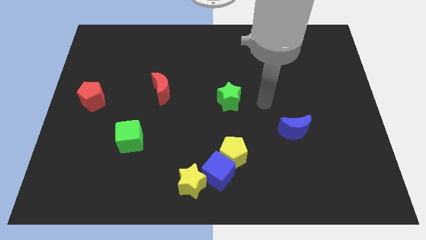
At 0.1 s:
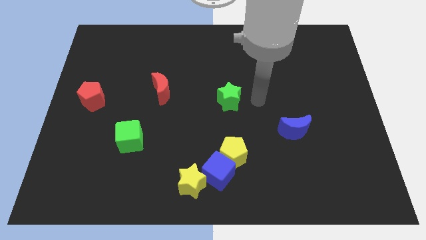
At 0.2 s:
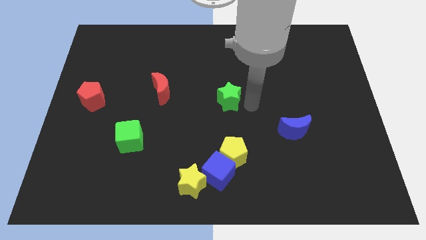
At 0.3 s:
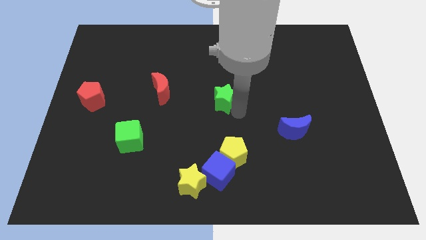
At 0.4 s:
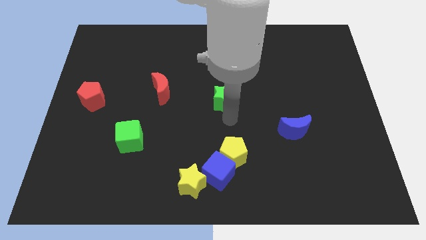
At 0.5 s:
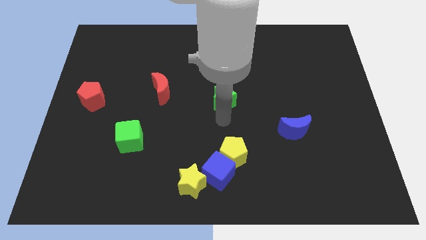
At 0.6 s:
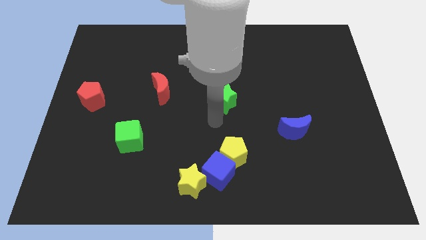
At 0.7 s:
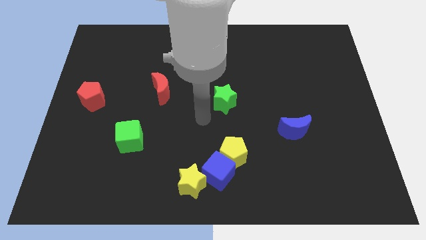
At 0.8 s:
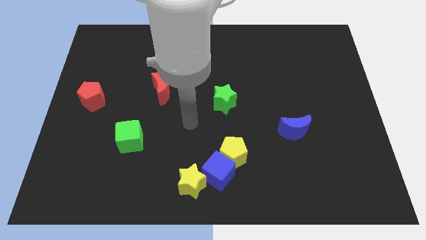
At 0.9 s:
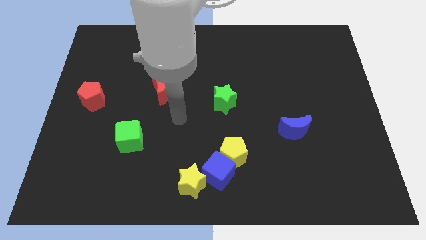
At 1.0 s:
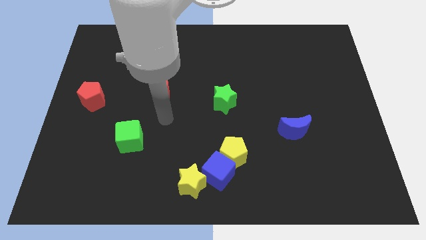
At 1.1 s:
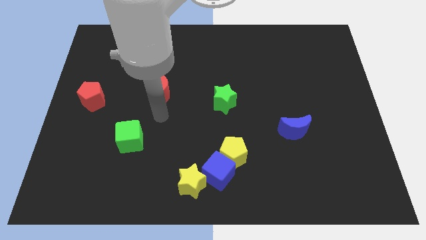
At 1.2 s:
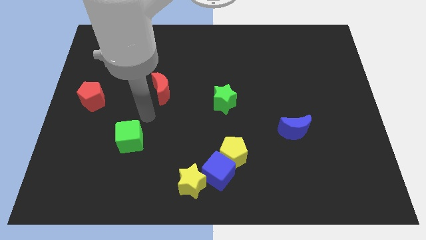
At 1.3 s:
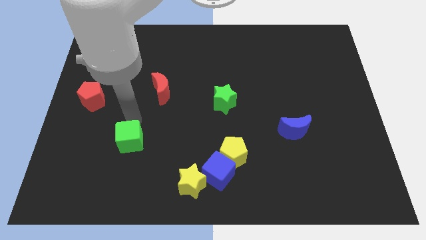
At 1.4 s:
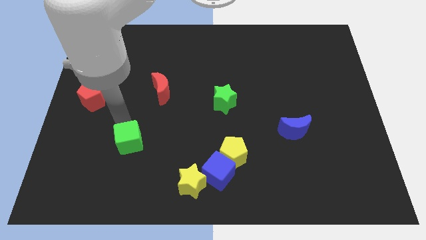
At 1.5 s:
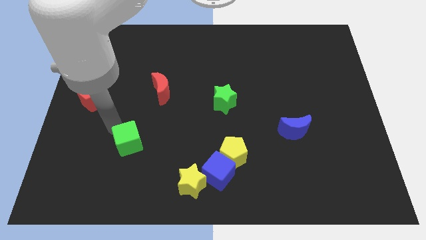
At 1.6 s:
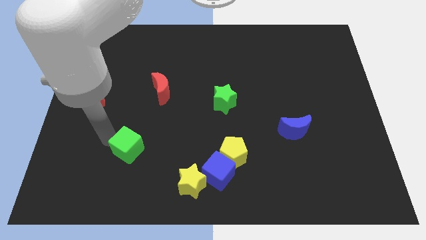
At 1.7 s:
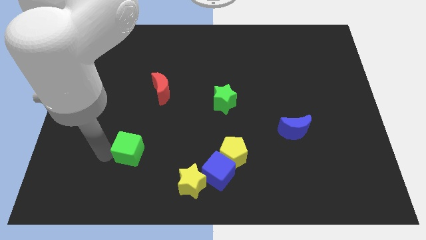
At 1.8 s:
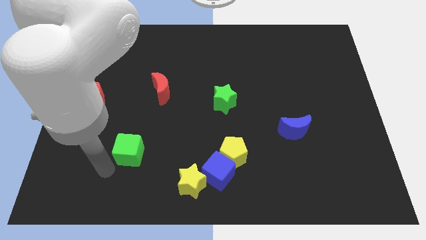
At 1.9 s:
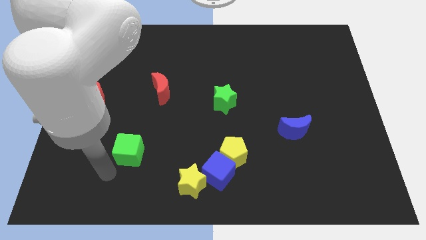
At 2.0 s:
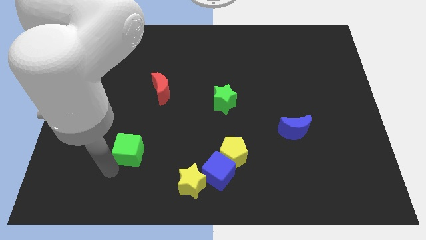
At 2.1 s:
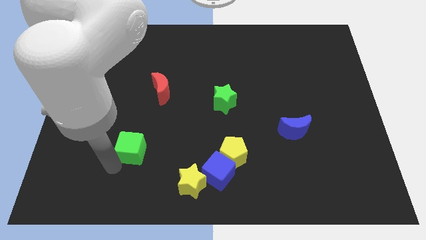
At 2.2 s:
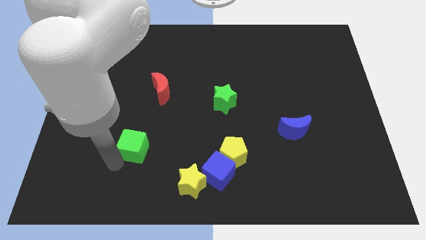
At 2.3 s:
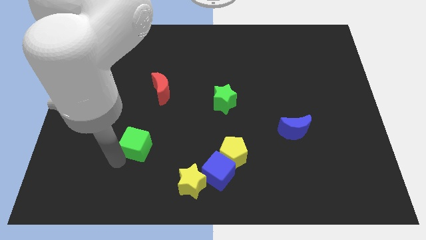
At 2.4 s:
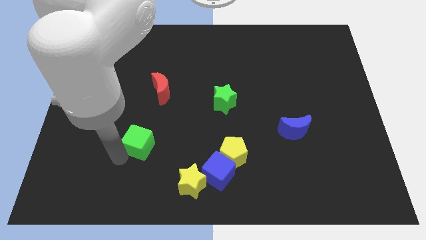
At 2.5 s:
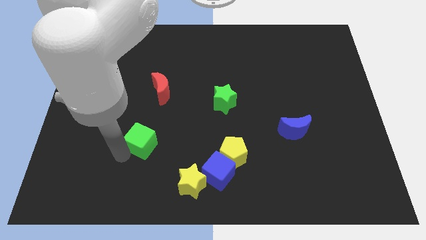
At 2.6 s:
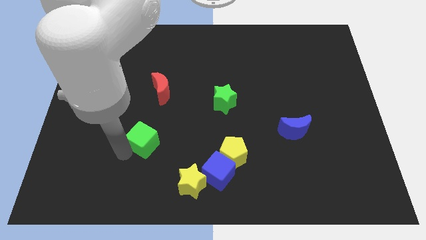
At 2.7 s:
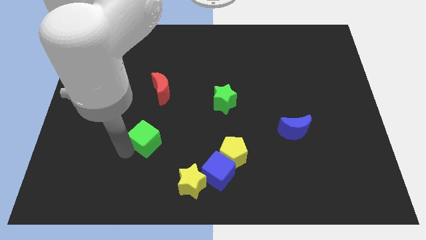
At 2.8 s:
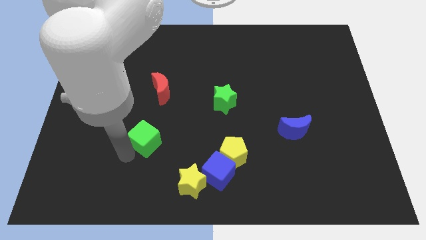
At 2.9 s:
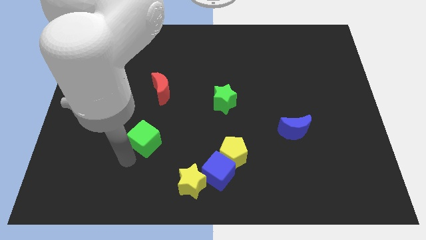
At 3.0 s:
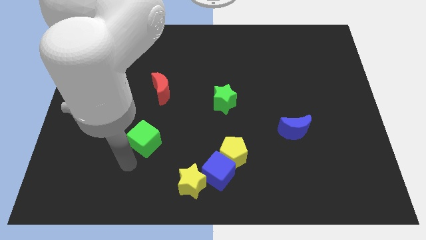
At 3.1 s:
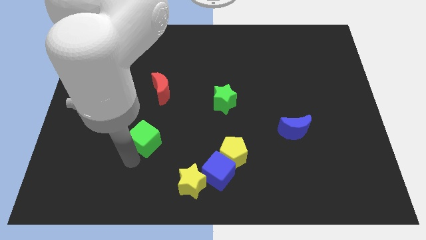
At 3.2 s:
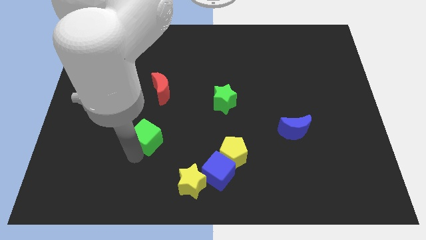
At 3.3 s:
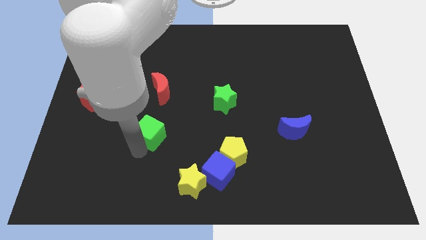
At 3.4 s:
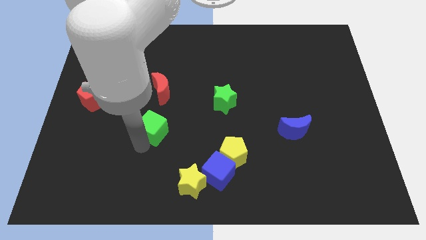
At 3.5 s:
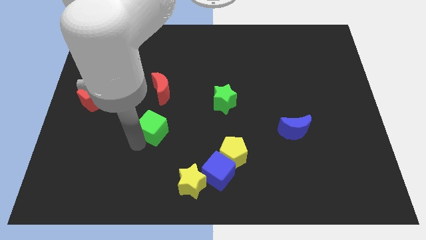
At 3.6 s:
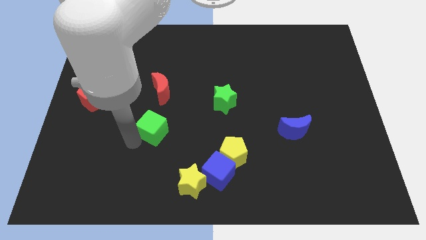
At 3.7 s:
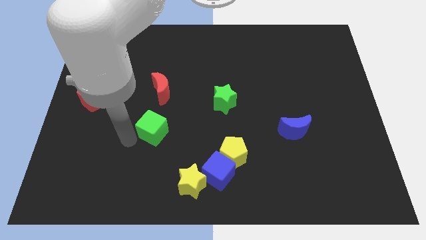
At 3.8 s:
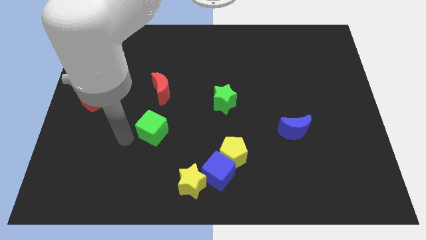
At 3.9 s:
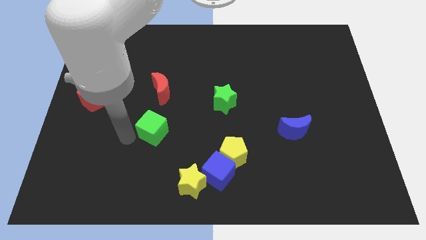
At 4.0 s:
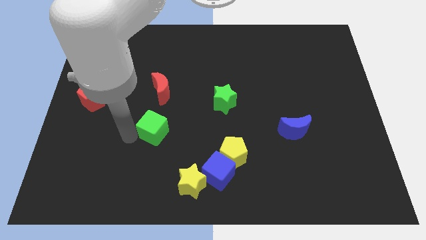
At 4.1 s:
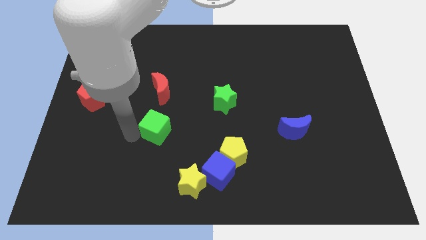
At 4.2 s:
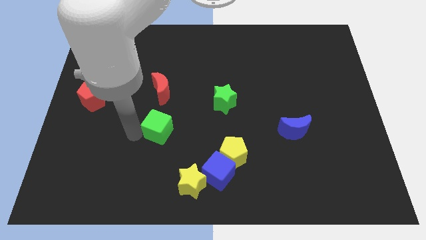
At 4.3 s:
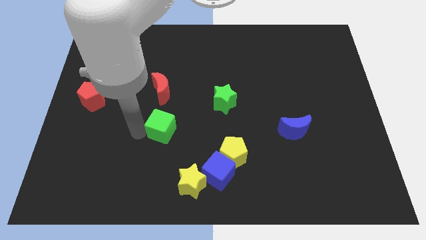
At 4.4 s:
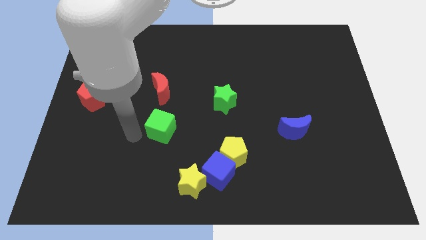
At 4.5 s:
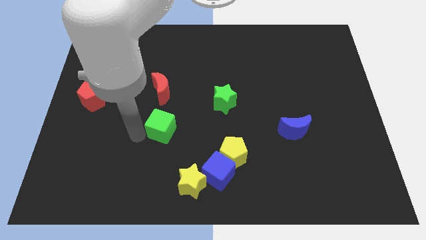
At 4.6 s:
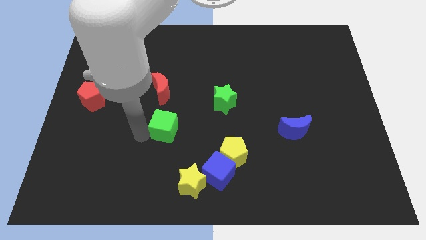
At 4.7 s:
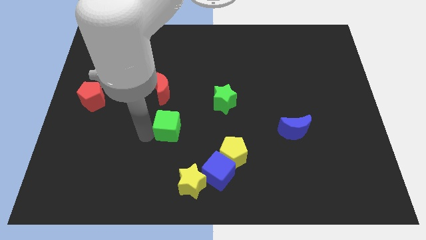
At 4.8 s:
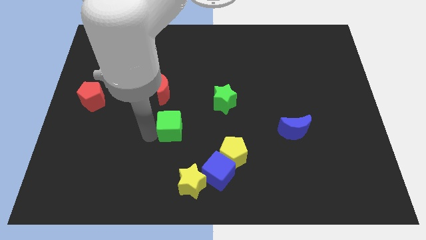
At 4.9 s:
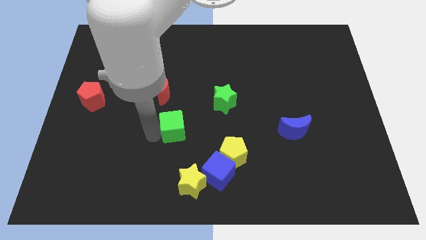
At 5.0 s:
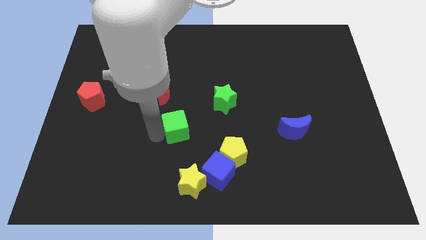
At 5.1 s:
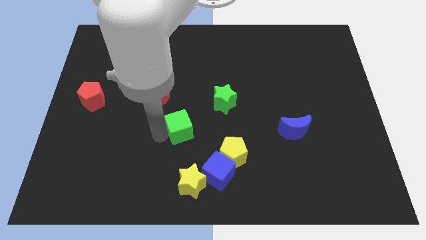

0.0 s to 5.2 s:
put the green cube diagonally down and to the left of the green star

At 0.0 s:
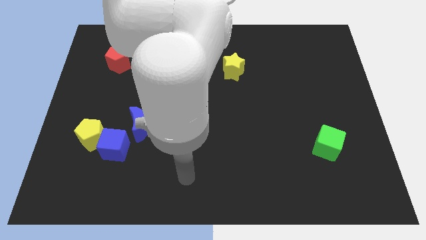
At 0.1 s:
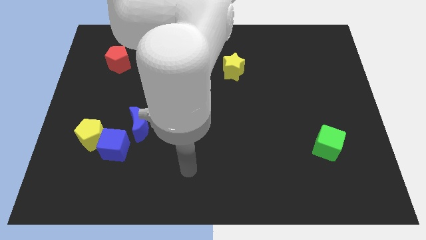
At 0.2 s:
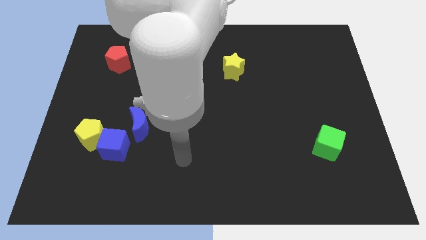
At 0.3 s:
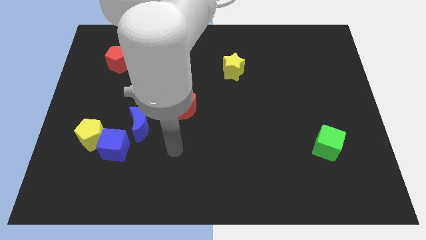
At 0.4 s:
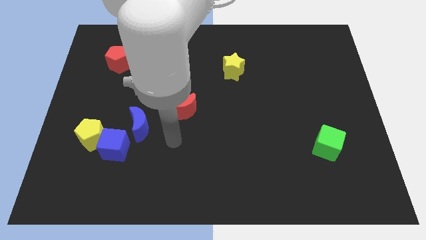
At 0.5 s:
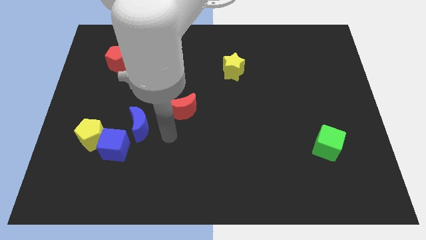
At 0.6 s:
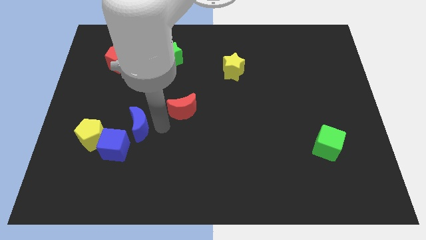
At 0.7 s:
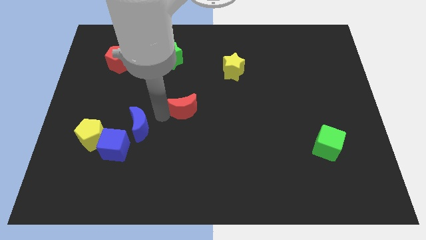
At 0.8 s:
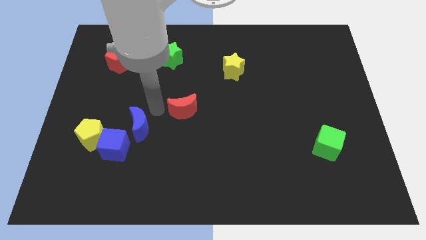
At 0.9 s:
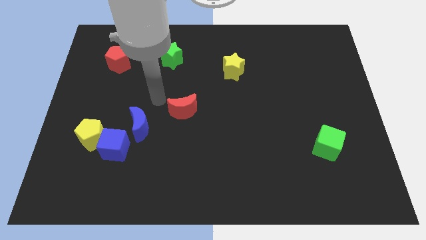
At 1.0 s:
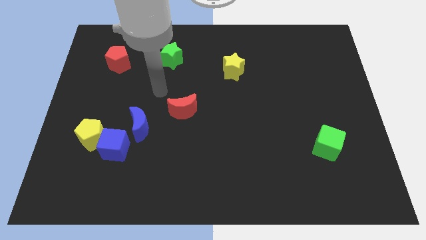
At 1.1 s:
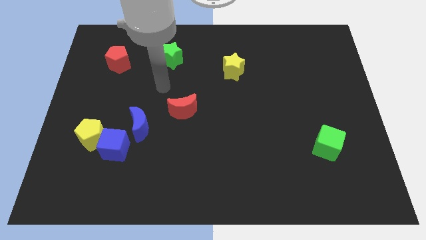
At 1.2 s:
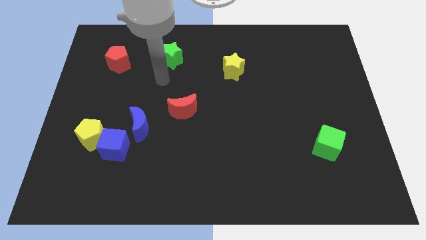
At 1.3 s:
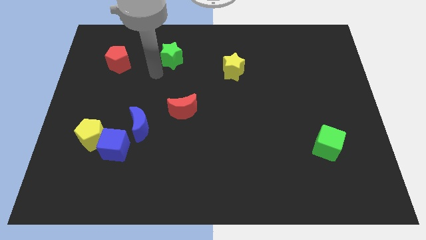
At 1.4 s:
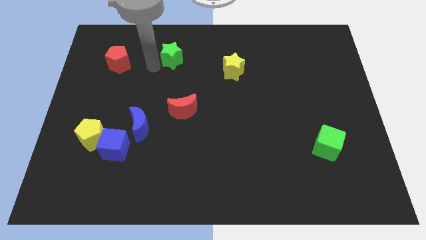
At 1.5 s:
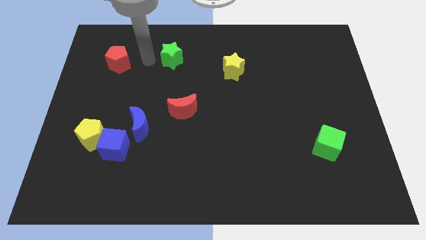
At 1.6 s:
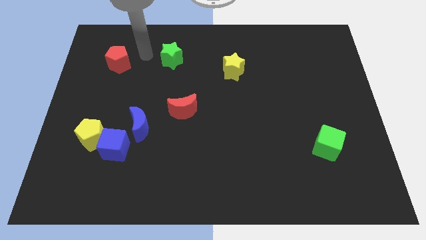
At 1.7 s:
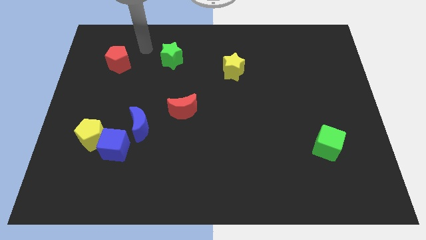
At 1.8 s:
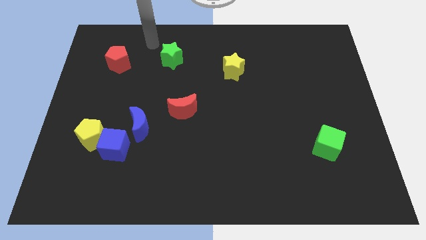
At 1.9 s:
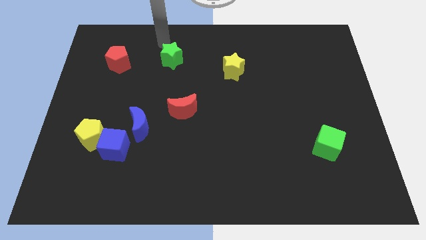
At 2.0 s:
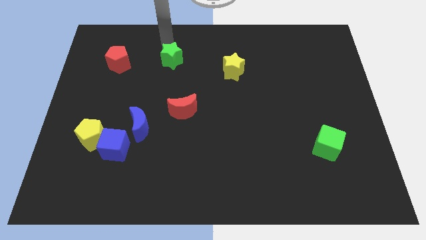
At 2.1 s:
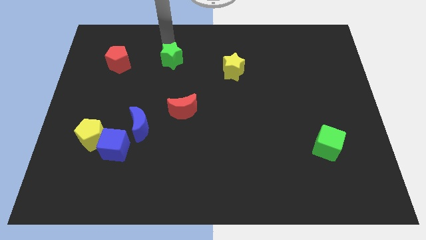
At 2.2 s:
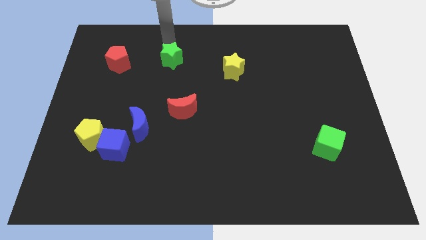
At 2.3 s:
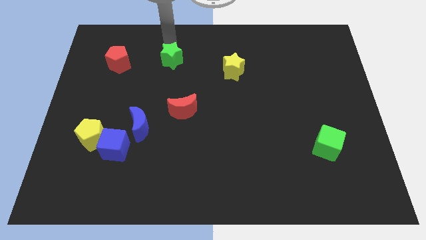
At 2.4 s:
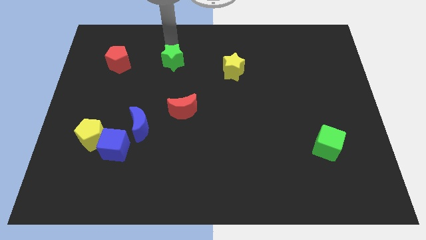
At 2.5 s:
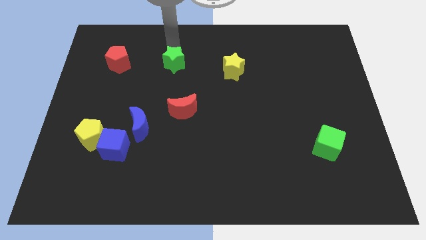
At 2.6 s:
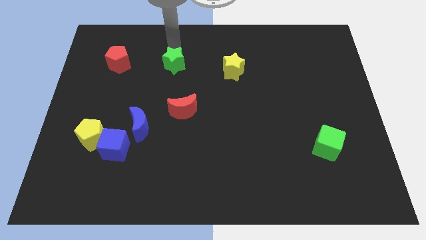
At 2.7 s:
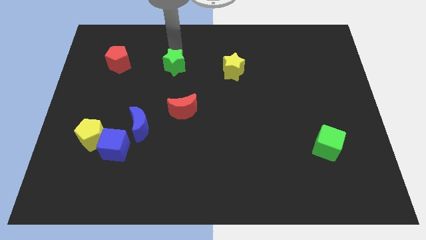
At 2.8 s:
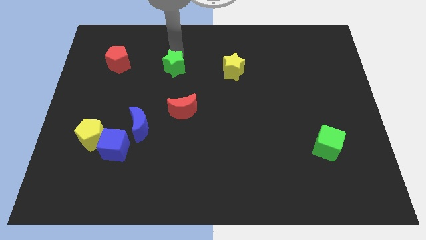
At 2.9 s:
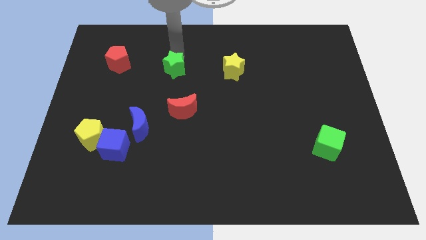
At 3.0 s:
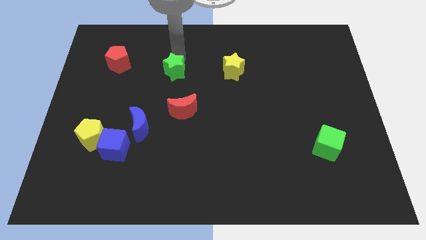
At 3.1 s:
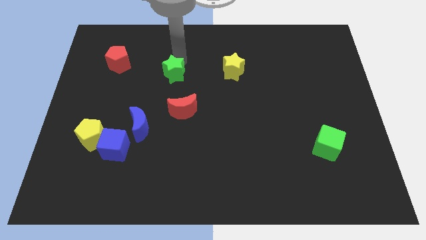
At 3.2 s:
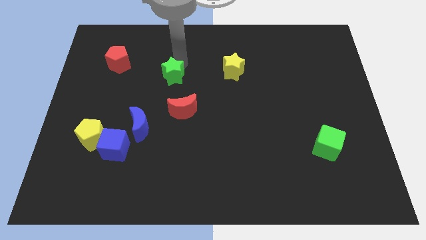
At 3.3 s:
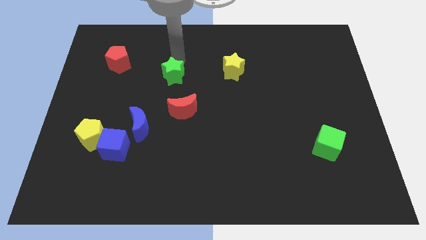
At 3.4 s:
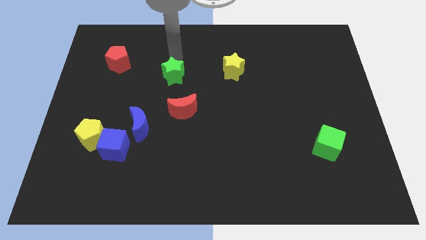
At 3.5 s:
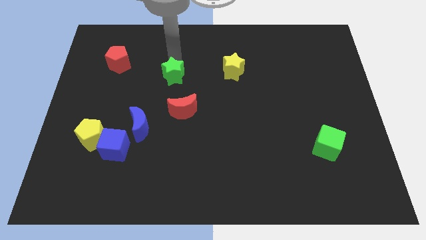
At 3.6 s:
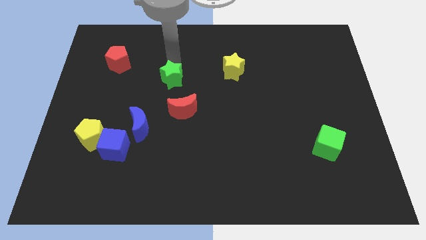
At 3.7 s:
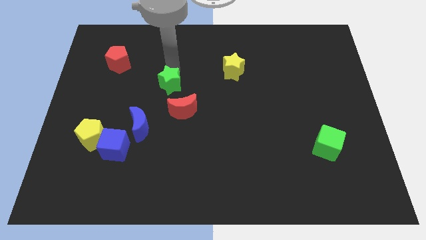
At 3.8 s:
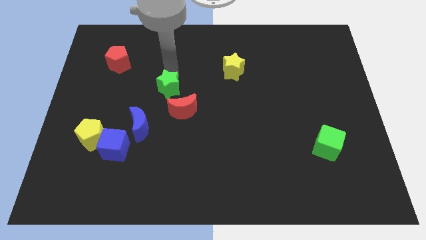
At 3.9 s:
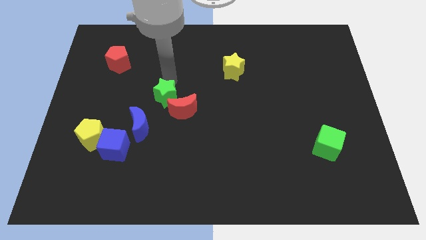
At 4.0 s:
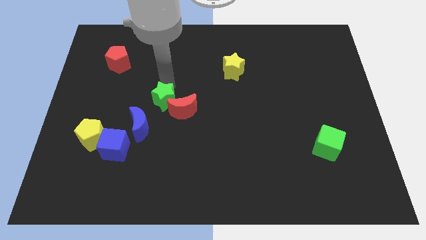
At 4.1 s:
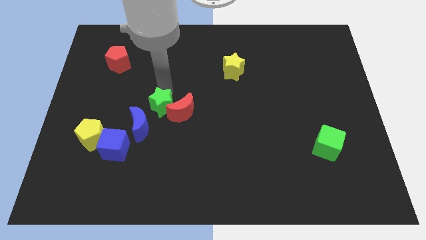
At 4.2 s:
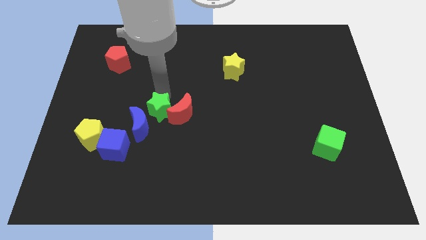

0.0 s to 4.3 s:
move the green star right of the blue moon
